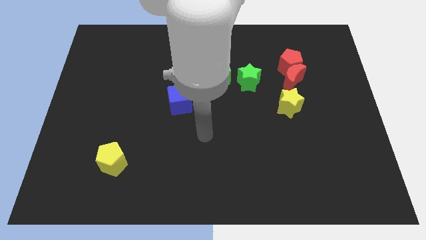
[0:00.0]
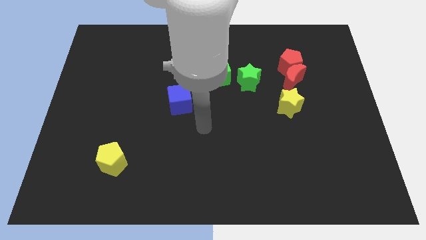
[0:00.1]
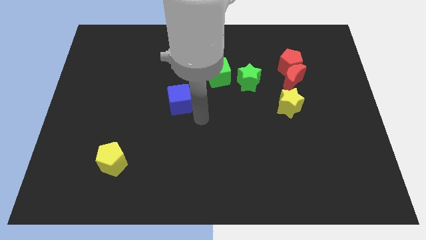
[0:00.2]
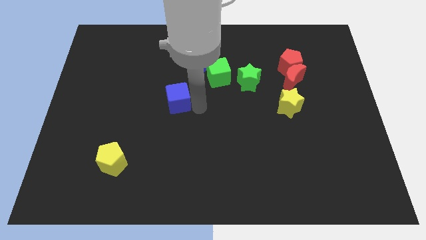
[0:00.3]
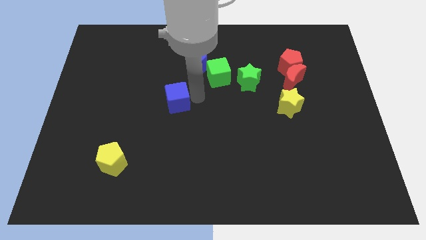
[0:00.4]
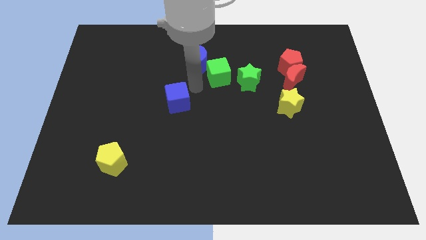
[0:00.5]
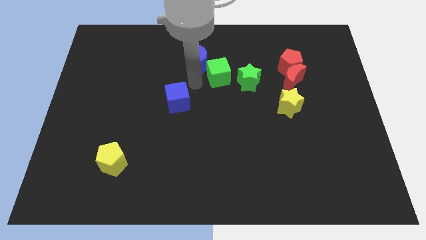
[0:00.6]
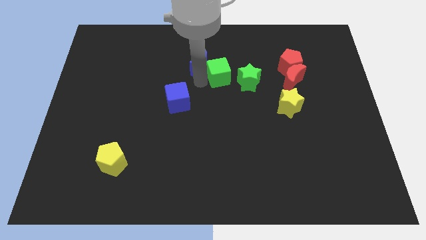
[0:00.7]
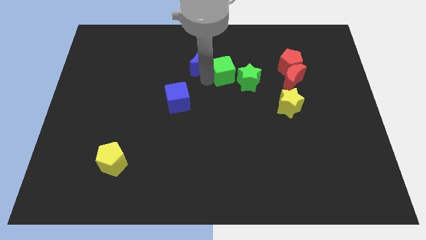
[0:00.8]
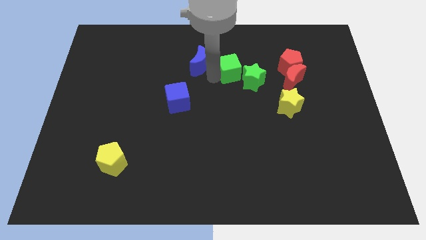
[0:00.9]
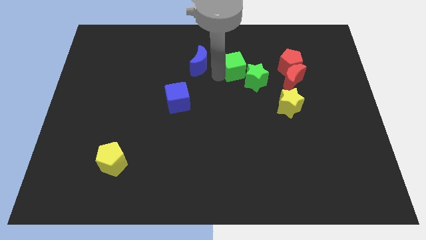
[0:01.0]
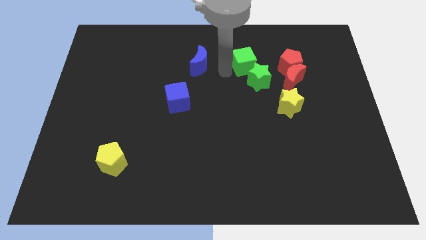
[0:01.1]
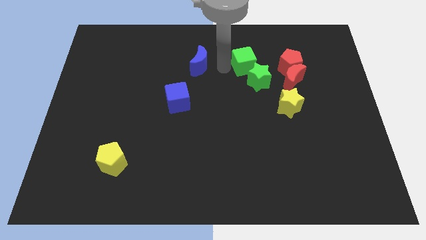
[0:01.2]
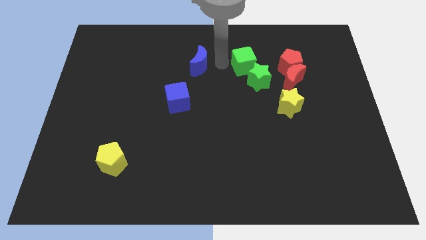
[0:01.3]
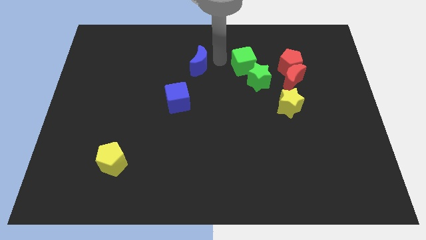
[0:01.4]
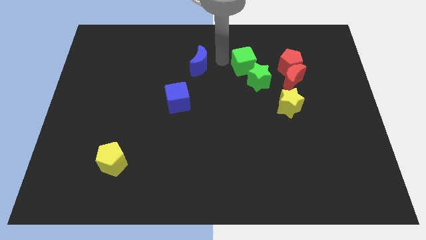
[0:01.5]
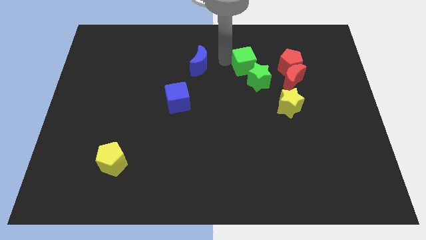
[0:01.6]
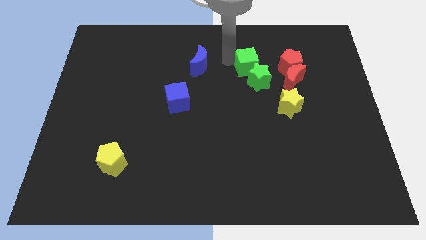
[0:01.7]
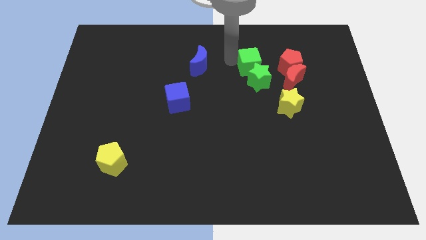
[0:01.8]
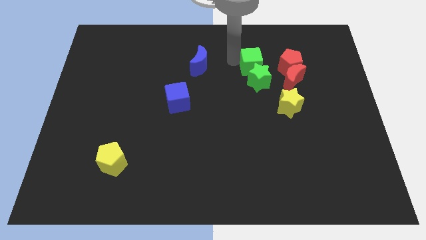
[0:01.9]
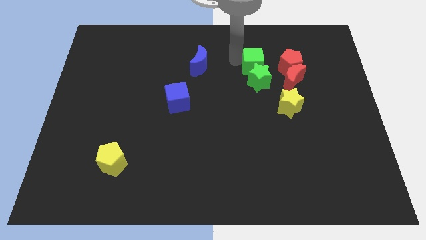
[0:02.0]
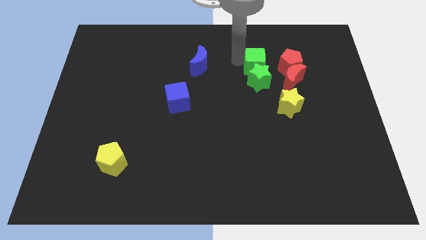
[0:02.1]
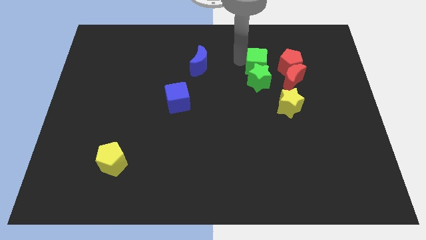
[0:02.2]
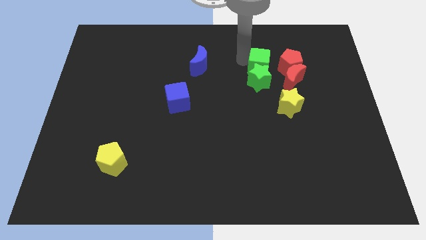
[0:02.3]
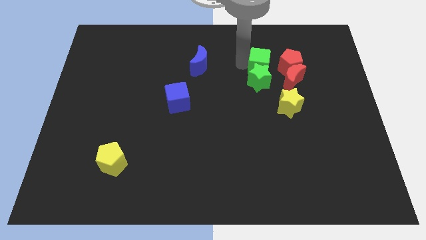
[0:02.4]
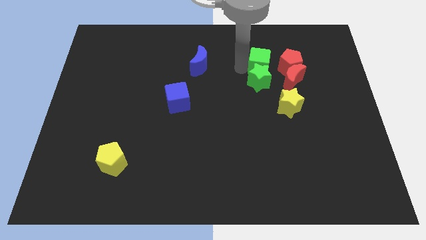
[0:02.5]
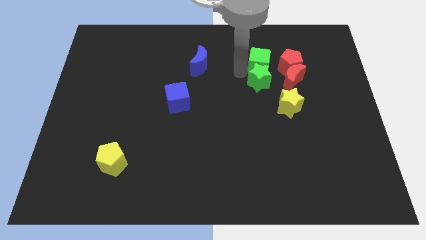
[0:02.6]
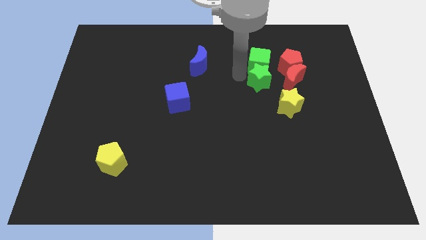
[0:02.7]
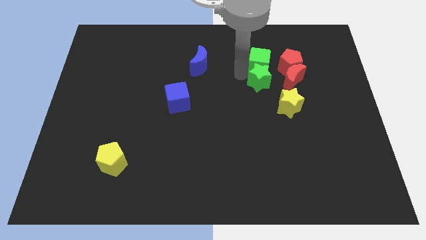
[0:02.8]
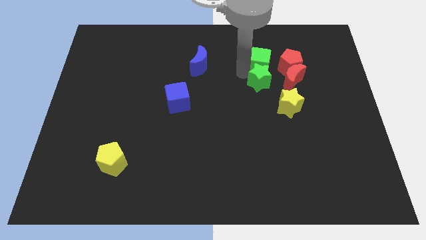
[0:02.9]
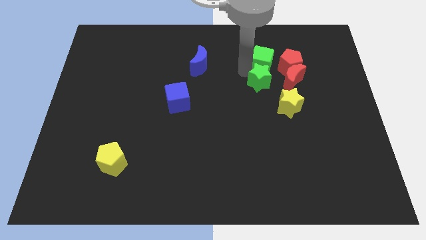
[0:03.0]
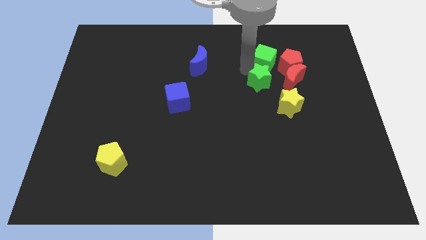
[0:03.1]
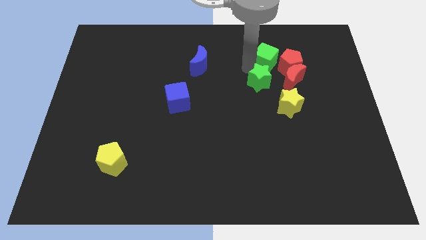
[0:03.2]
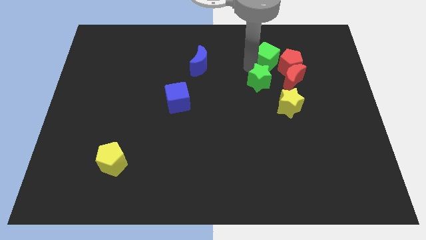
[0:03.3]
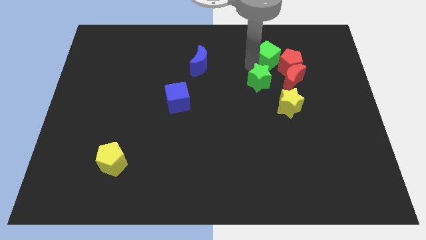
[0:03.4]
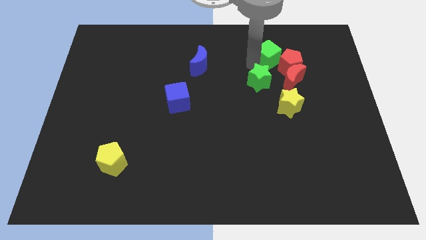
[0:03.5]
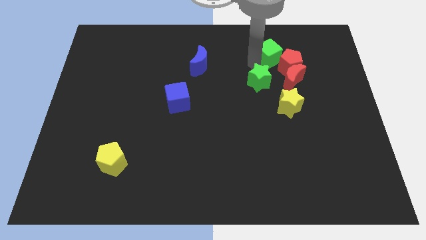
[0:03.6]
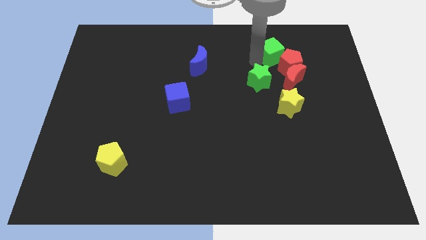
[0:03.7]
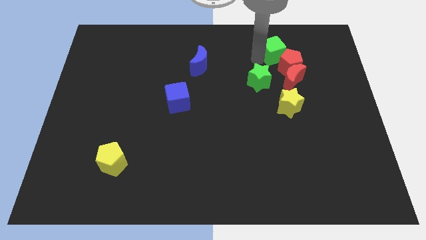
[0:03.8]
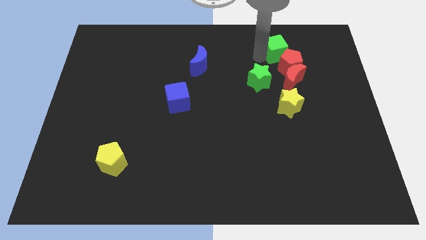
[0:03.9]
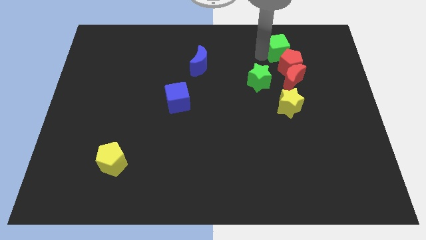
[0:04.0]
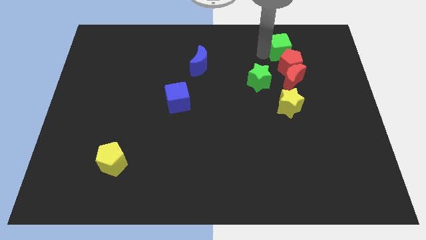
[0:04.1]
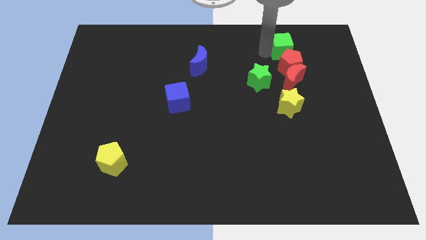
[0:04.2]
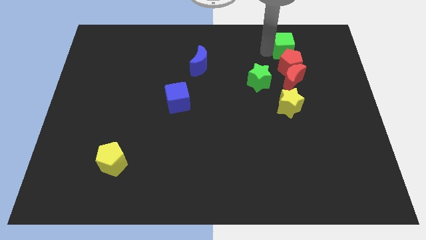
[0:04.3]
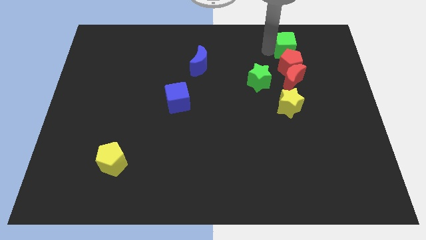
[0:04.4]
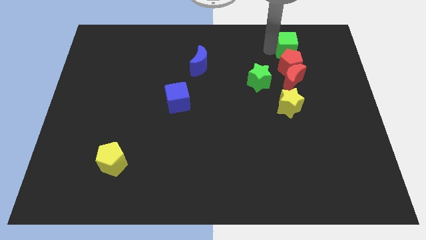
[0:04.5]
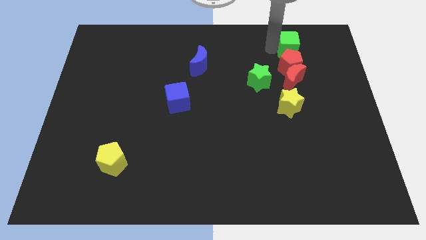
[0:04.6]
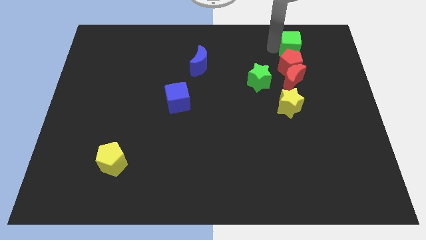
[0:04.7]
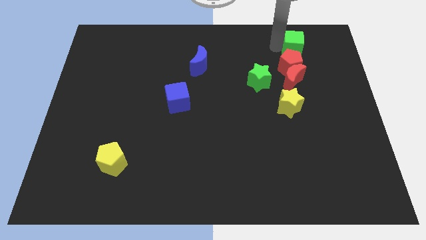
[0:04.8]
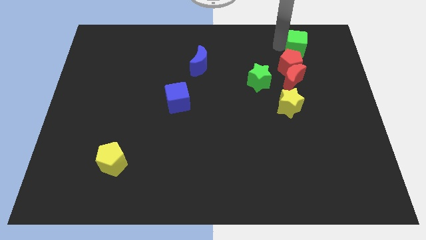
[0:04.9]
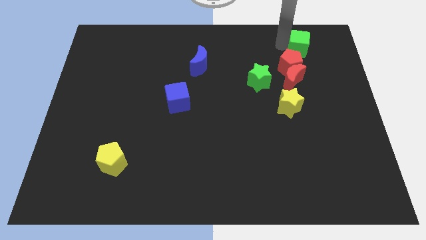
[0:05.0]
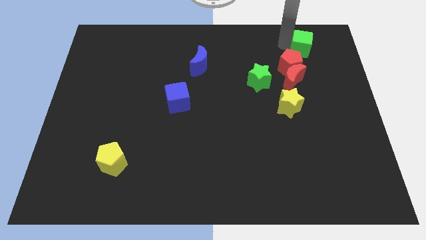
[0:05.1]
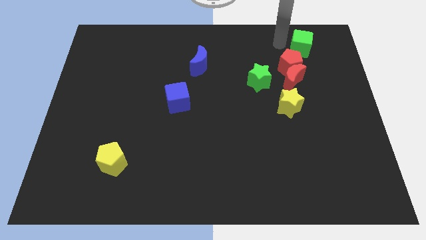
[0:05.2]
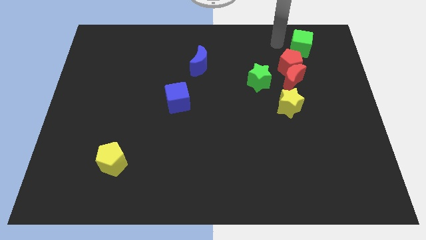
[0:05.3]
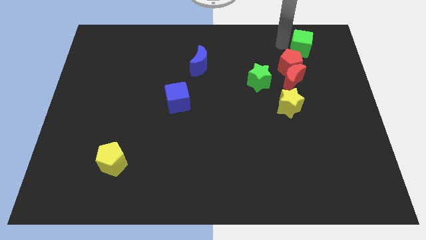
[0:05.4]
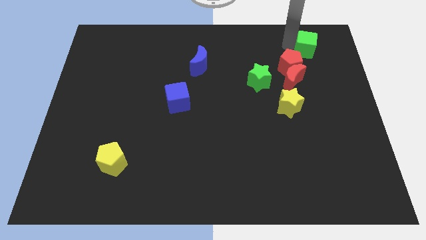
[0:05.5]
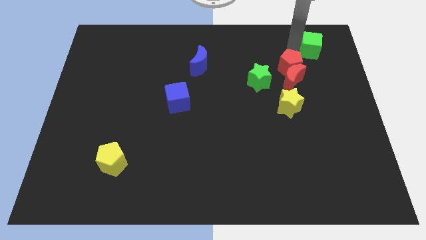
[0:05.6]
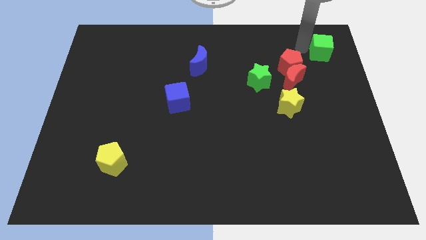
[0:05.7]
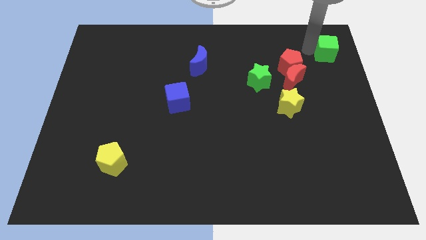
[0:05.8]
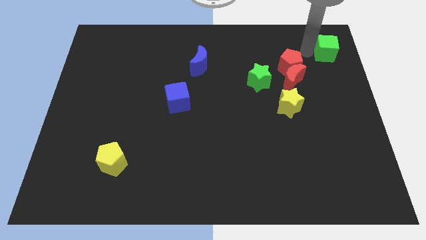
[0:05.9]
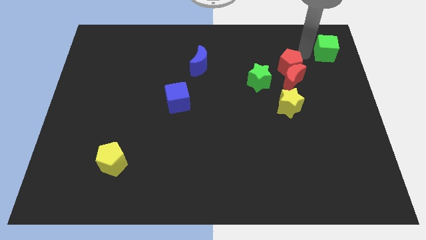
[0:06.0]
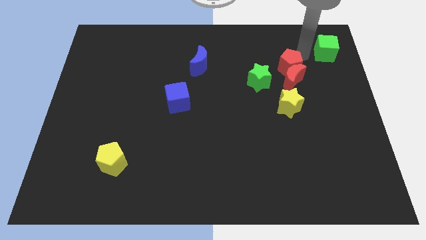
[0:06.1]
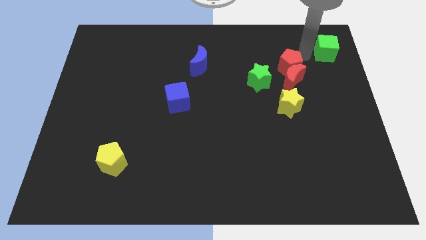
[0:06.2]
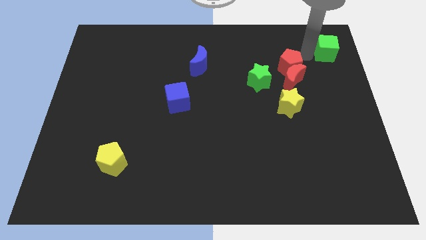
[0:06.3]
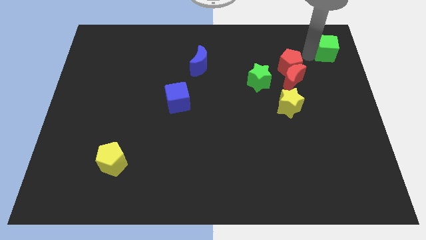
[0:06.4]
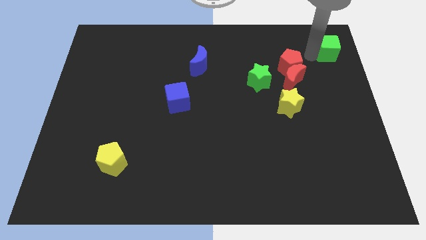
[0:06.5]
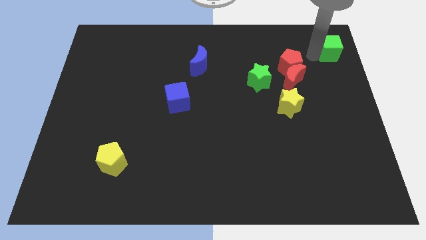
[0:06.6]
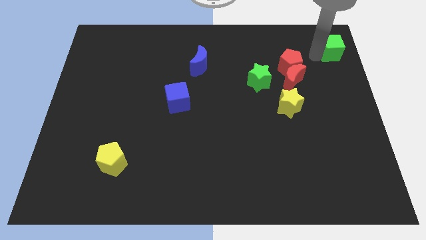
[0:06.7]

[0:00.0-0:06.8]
slide the green cube to the top right corner
